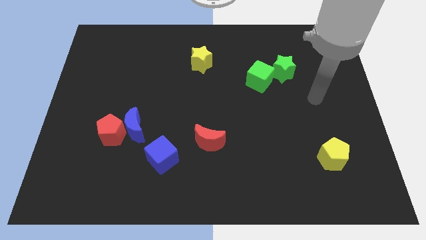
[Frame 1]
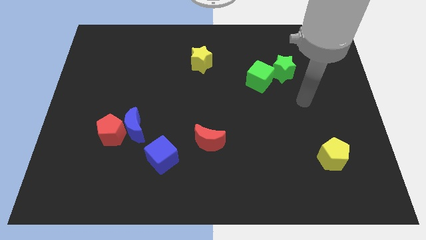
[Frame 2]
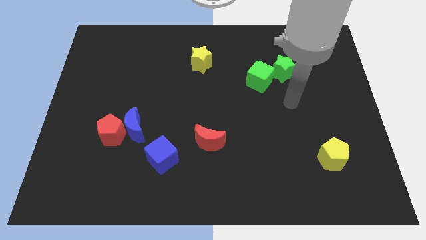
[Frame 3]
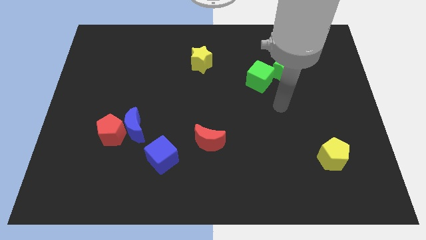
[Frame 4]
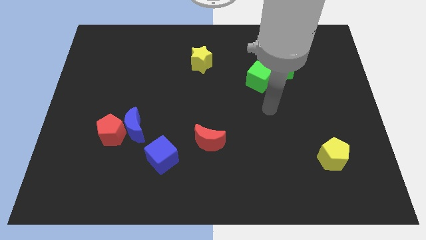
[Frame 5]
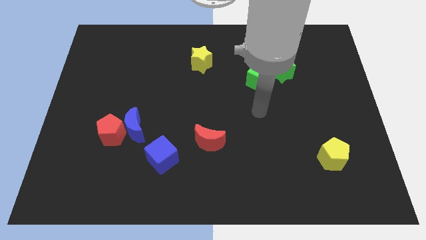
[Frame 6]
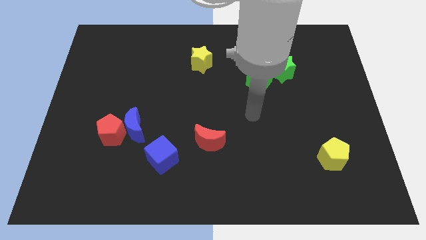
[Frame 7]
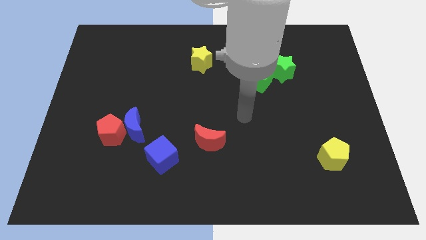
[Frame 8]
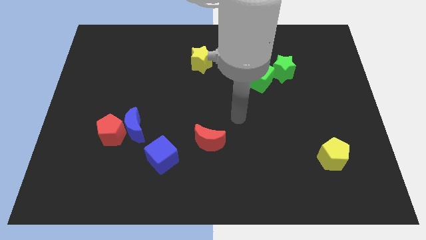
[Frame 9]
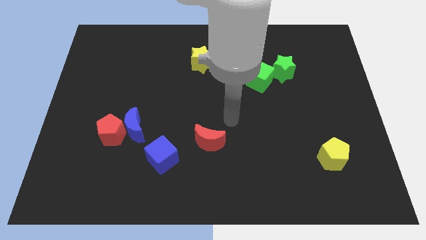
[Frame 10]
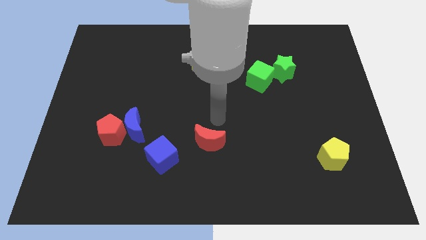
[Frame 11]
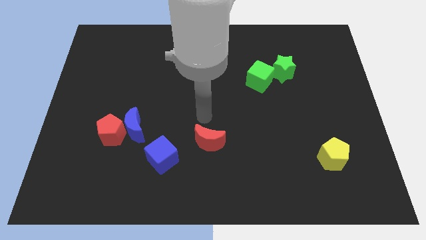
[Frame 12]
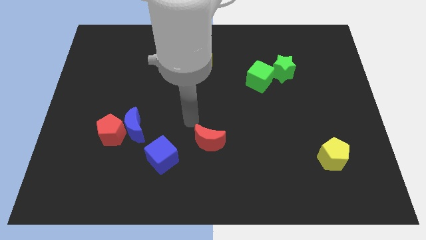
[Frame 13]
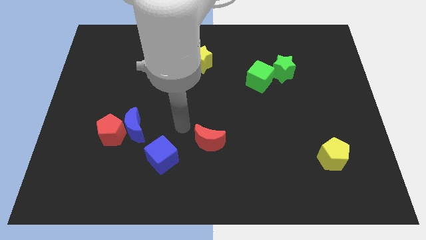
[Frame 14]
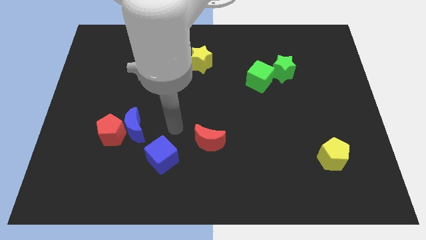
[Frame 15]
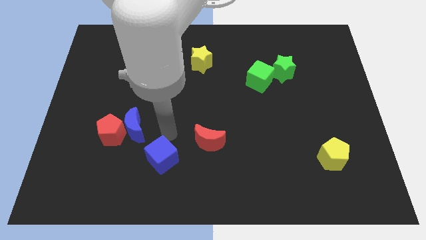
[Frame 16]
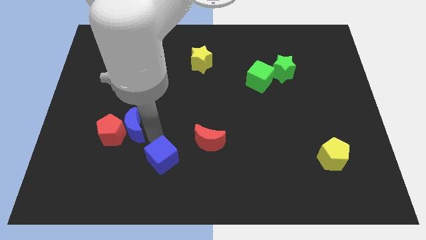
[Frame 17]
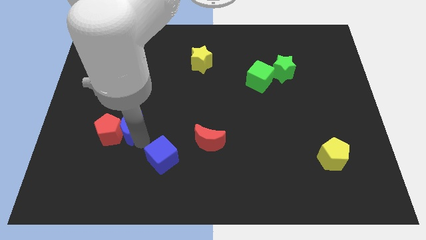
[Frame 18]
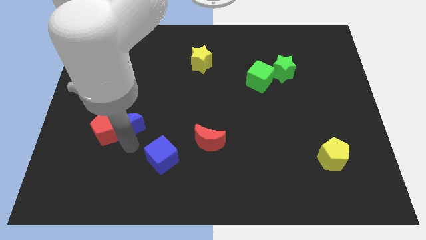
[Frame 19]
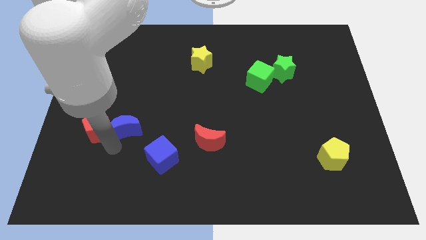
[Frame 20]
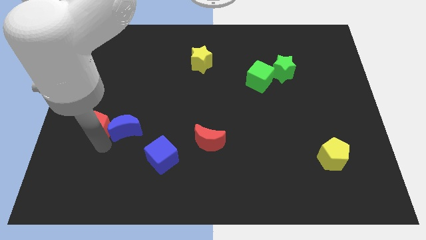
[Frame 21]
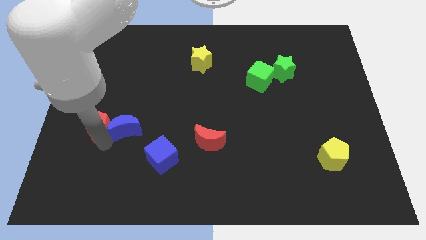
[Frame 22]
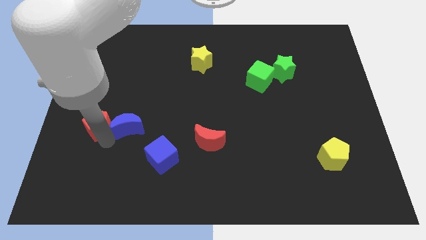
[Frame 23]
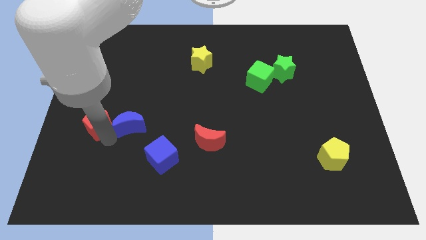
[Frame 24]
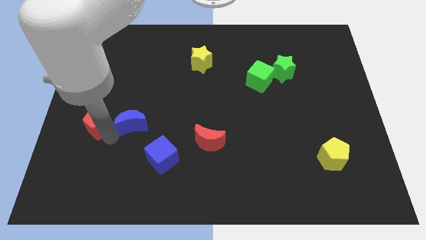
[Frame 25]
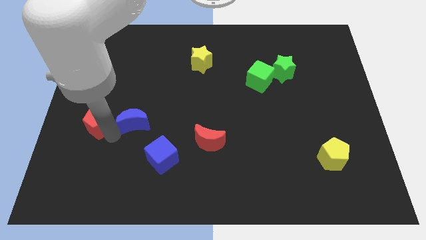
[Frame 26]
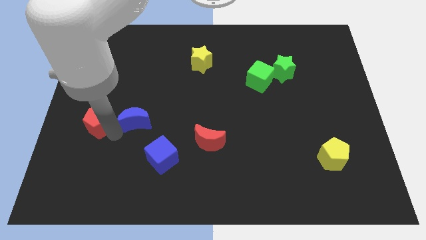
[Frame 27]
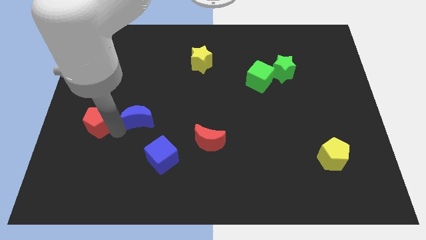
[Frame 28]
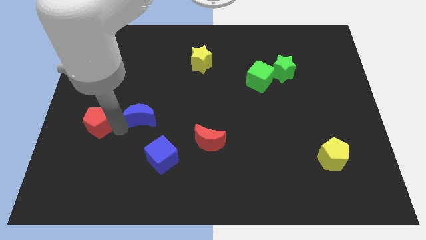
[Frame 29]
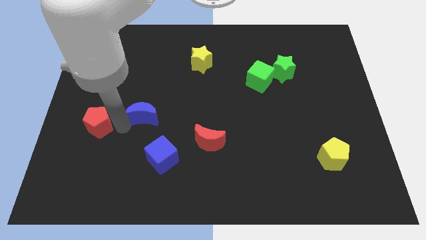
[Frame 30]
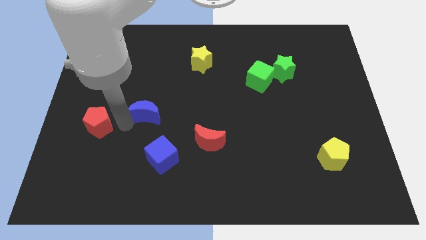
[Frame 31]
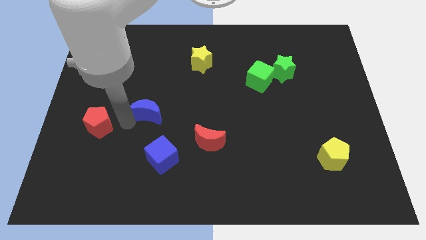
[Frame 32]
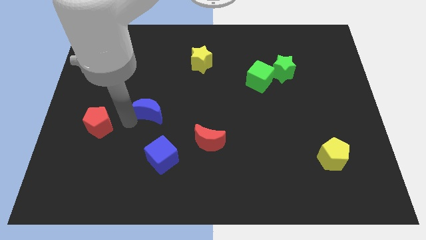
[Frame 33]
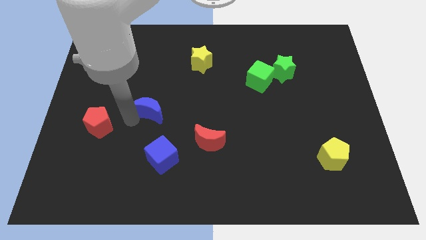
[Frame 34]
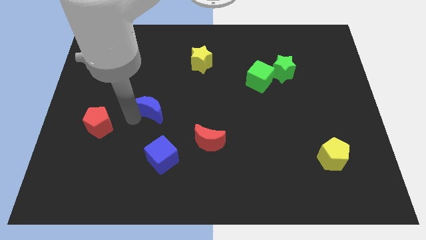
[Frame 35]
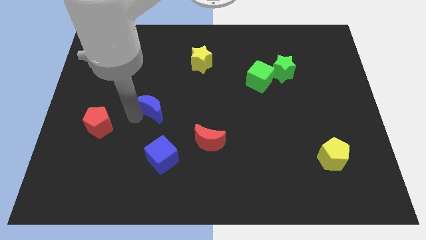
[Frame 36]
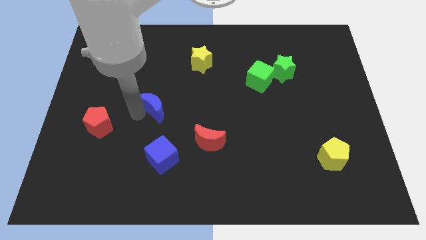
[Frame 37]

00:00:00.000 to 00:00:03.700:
push the blue moon upwards and to the right diagonally a bit

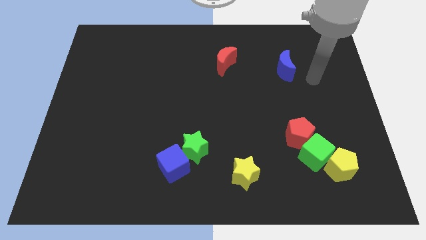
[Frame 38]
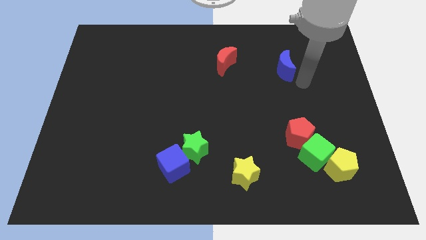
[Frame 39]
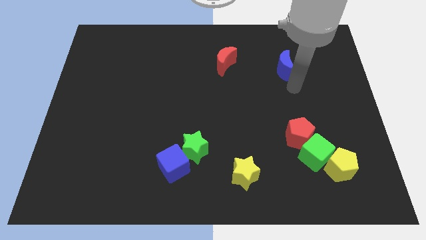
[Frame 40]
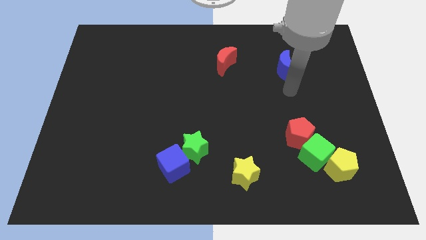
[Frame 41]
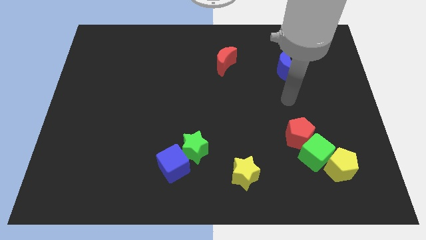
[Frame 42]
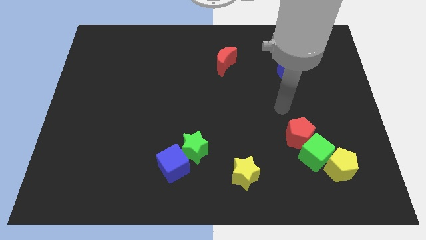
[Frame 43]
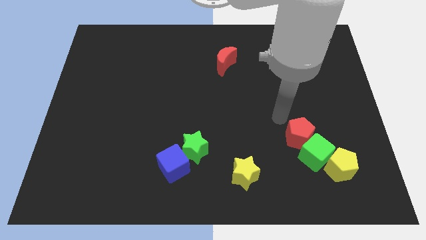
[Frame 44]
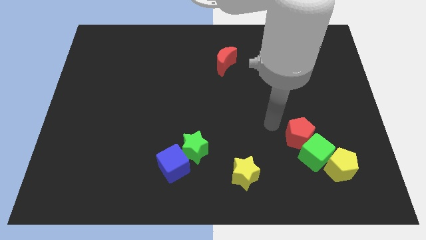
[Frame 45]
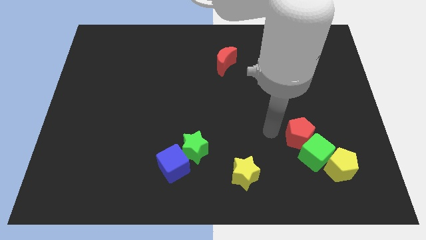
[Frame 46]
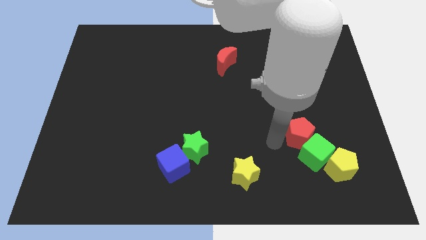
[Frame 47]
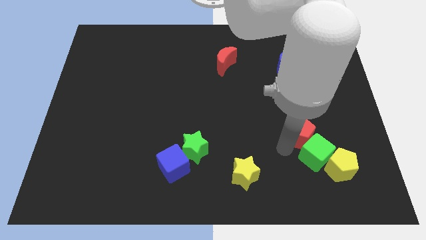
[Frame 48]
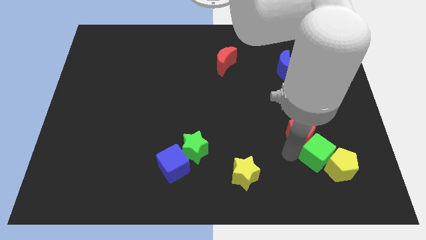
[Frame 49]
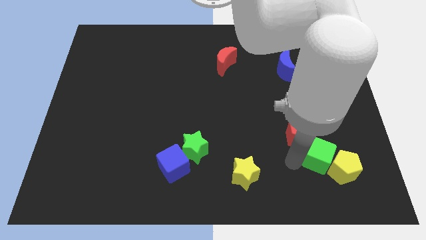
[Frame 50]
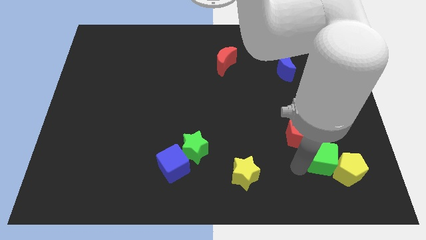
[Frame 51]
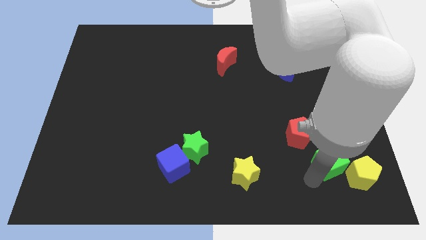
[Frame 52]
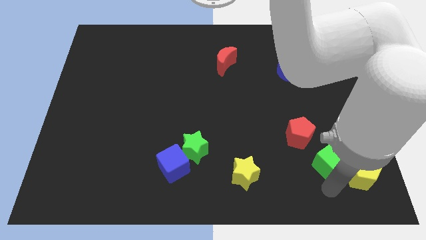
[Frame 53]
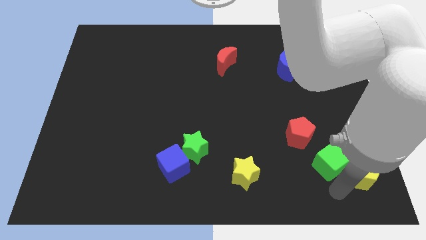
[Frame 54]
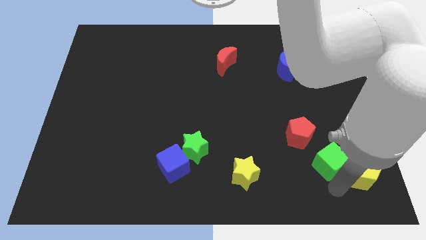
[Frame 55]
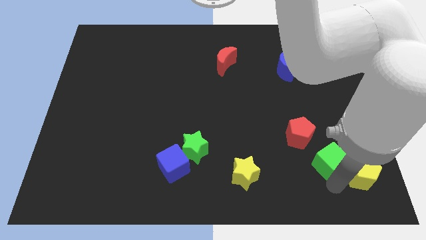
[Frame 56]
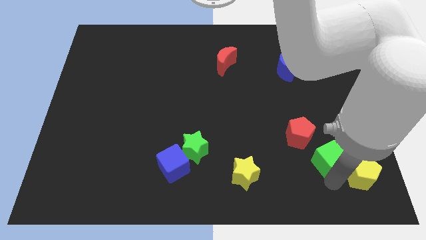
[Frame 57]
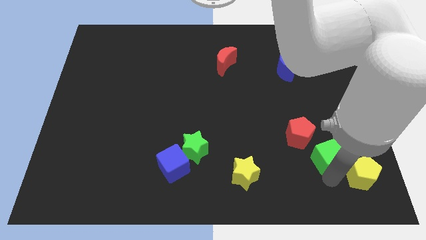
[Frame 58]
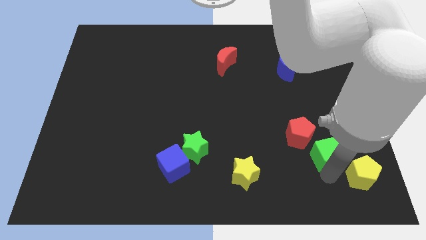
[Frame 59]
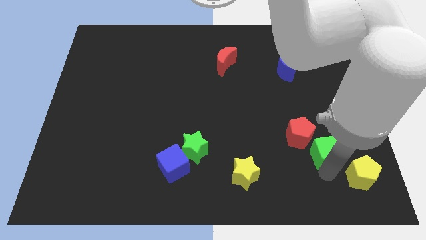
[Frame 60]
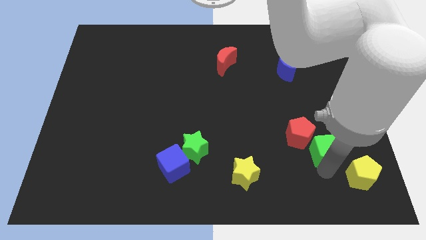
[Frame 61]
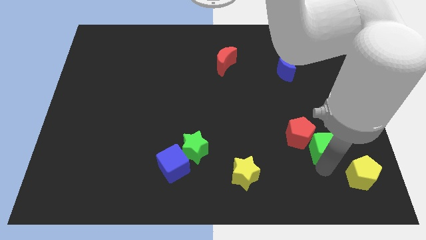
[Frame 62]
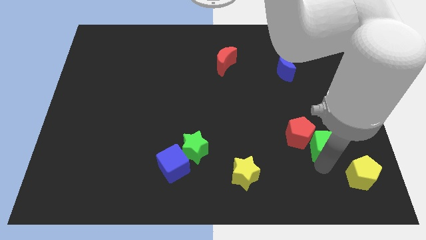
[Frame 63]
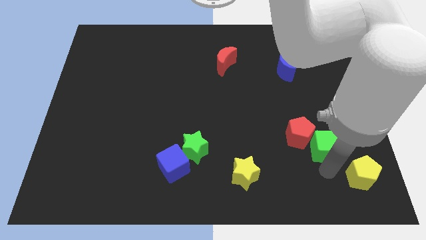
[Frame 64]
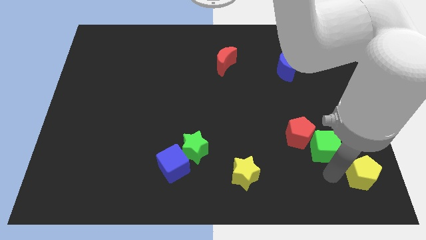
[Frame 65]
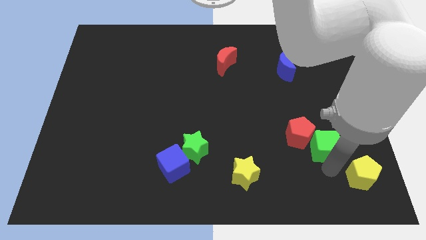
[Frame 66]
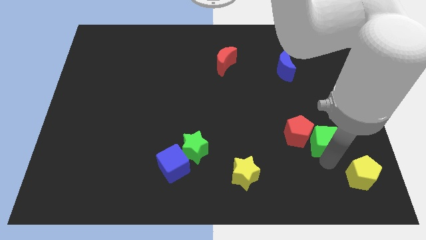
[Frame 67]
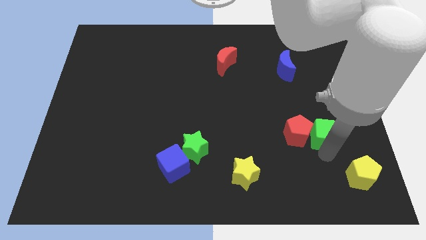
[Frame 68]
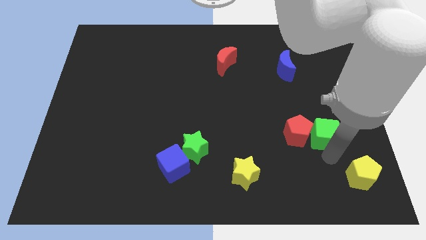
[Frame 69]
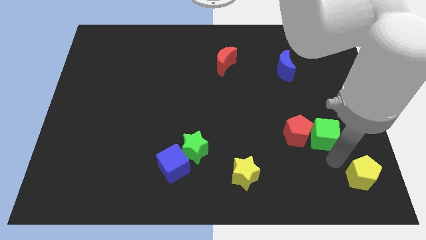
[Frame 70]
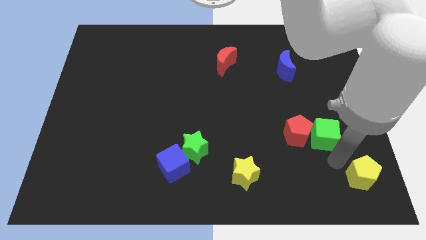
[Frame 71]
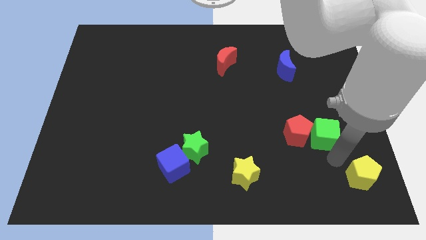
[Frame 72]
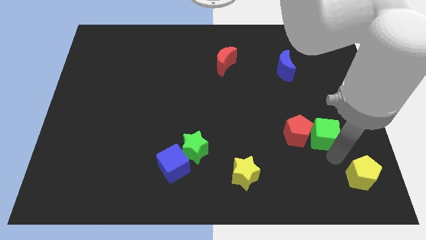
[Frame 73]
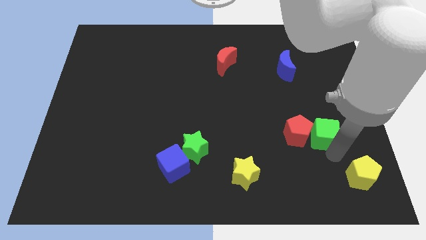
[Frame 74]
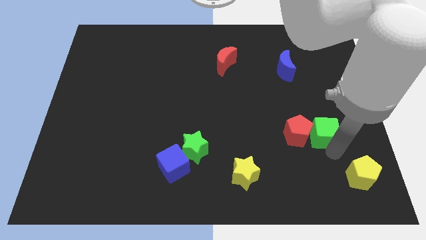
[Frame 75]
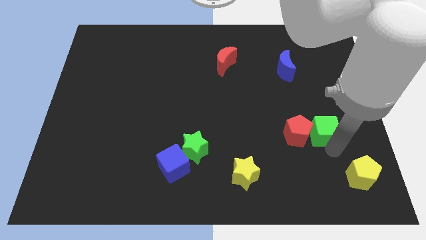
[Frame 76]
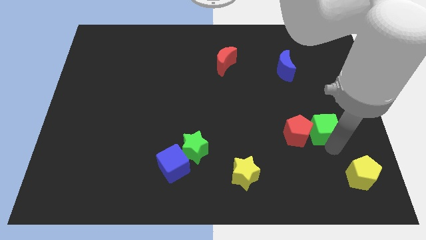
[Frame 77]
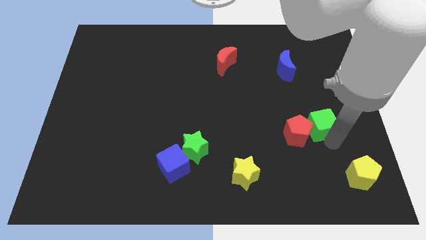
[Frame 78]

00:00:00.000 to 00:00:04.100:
push the green cube a little upwards
